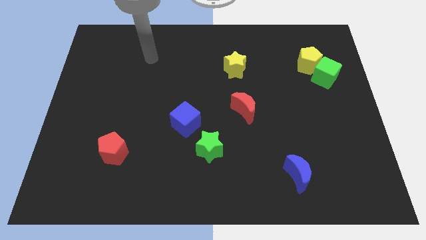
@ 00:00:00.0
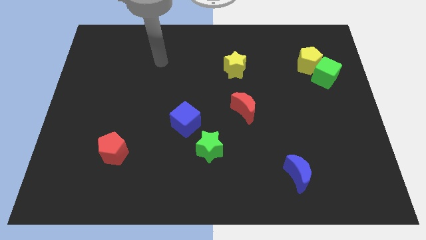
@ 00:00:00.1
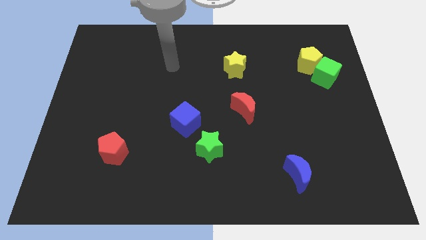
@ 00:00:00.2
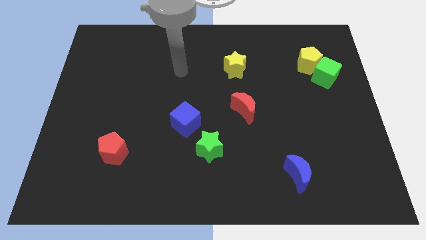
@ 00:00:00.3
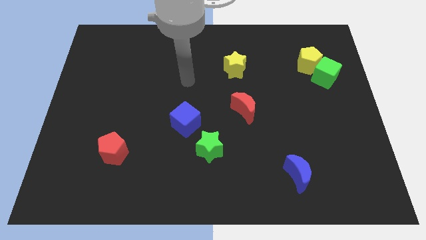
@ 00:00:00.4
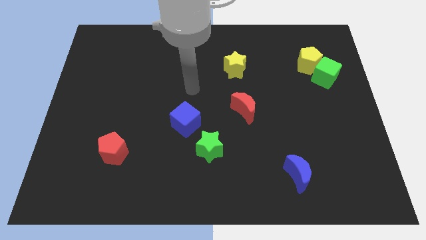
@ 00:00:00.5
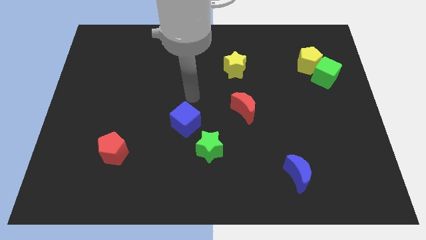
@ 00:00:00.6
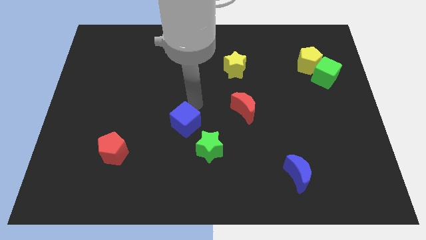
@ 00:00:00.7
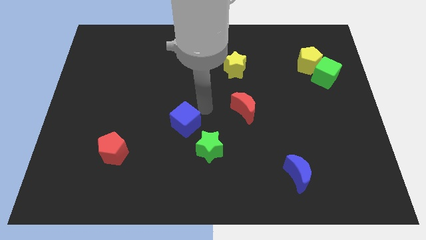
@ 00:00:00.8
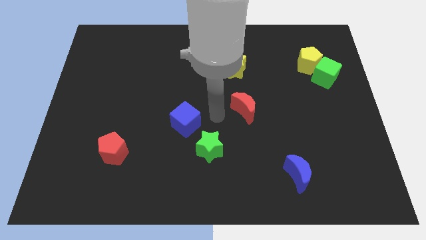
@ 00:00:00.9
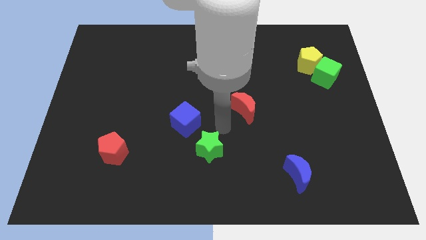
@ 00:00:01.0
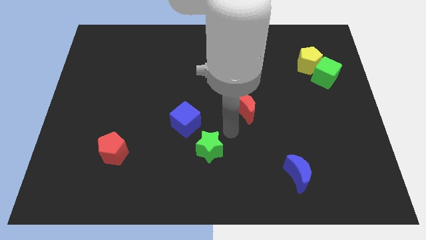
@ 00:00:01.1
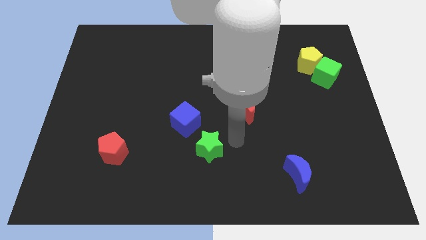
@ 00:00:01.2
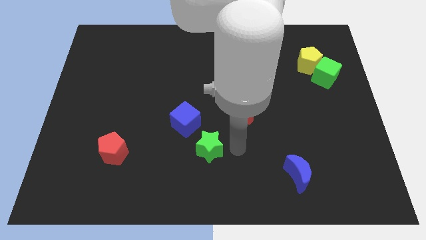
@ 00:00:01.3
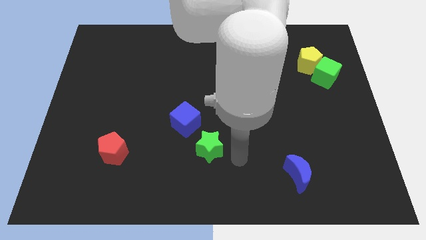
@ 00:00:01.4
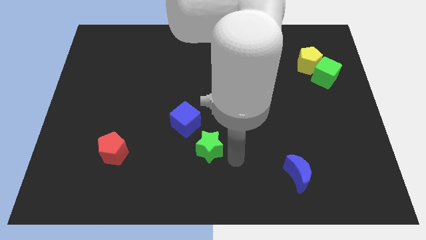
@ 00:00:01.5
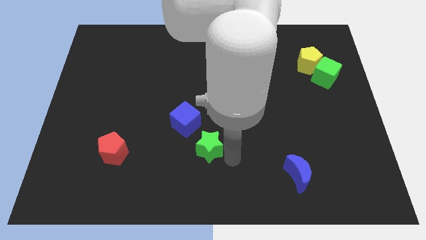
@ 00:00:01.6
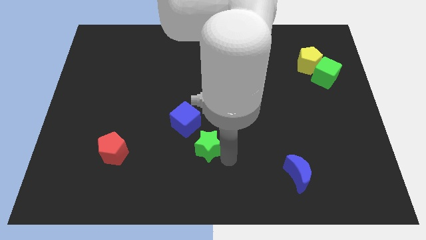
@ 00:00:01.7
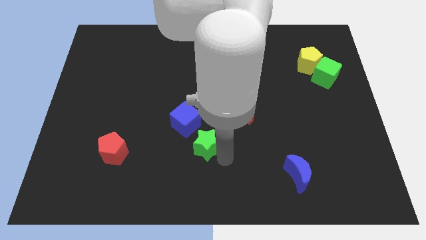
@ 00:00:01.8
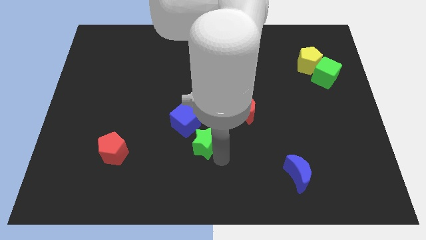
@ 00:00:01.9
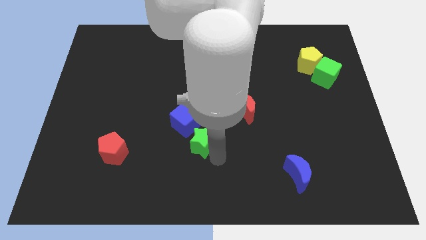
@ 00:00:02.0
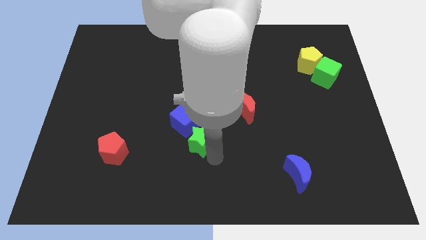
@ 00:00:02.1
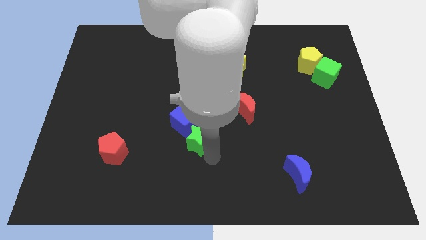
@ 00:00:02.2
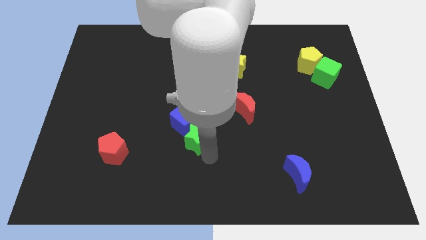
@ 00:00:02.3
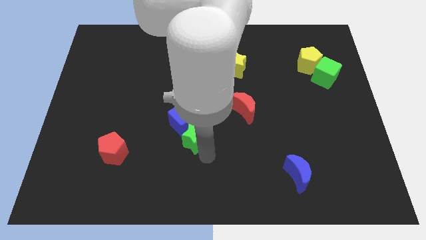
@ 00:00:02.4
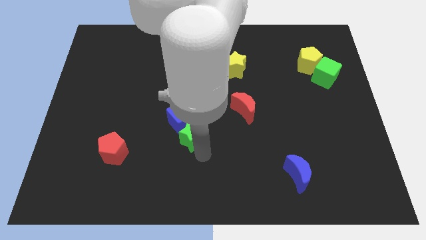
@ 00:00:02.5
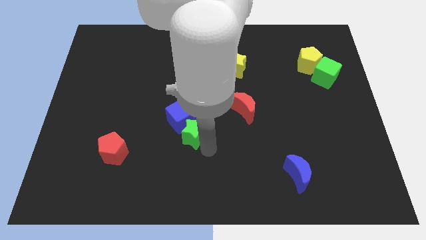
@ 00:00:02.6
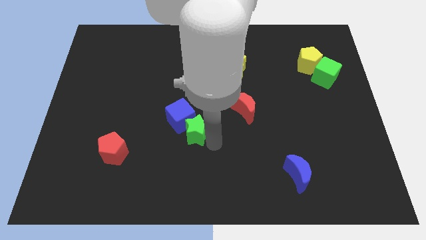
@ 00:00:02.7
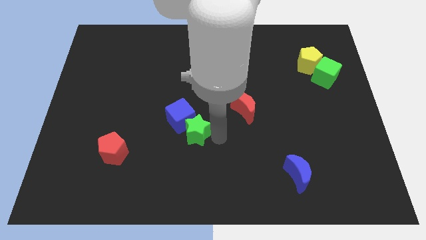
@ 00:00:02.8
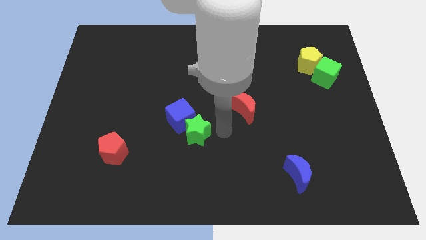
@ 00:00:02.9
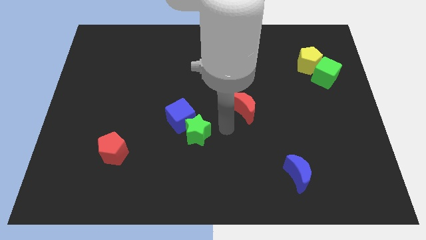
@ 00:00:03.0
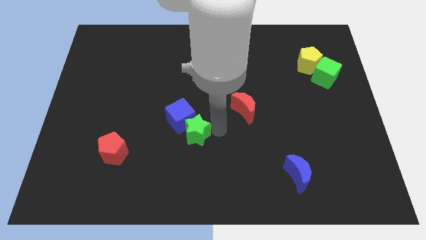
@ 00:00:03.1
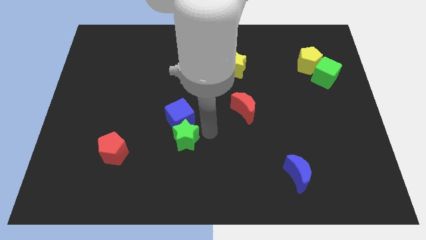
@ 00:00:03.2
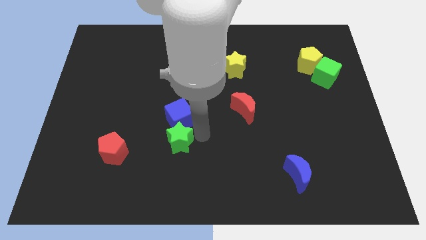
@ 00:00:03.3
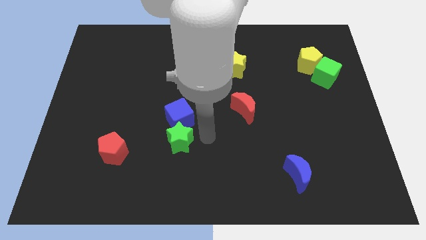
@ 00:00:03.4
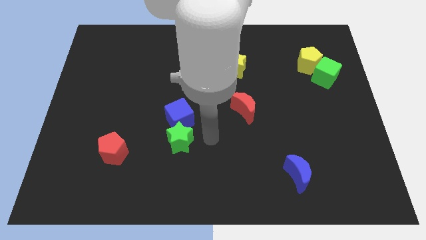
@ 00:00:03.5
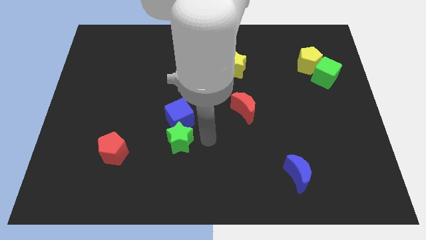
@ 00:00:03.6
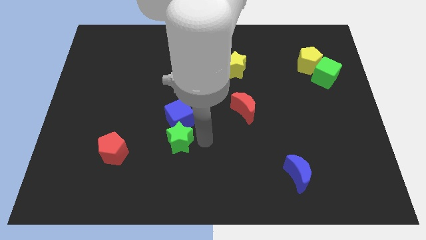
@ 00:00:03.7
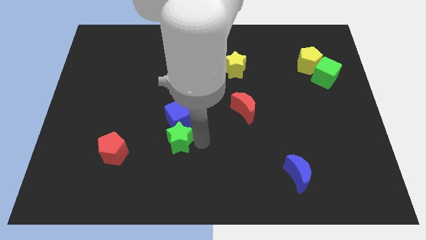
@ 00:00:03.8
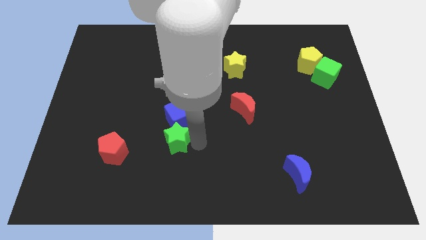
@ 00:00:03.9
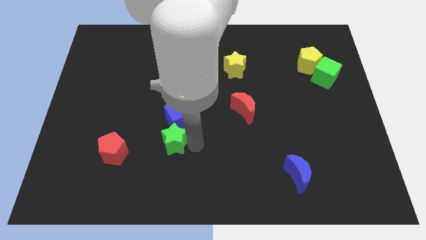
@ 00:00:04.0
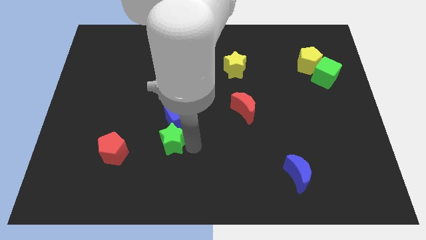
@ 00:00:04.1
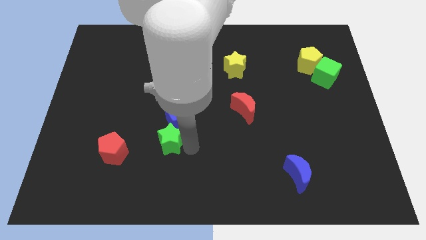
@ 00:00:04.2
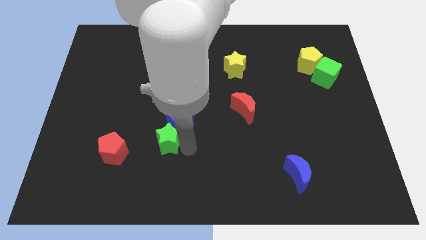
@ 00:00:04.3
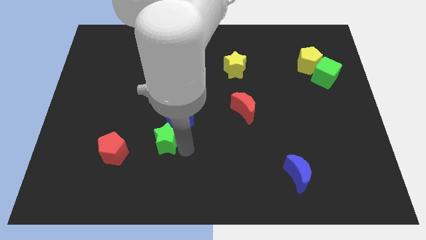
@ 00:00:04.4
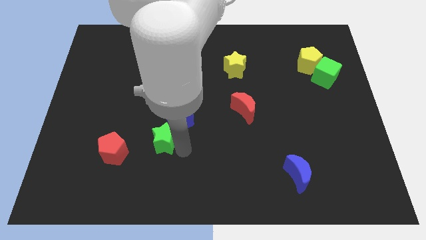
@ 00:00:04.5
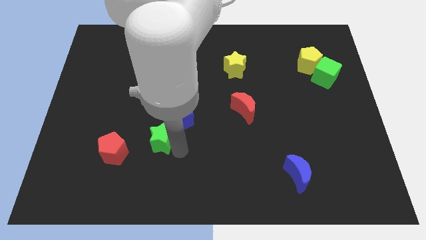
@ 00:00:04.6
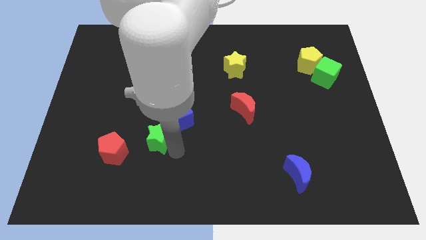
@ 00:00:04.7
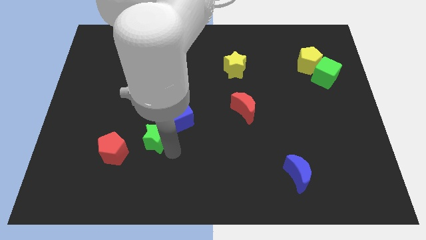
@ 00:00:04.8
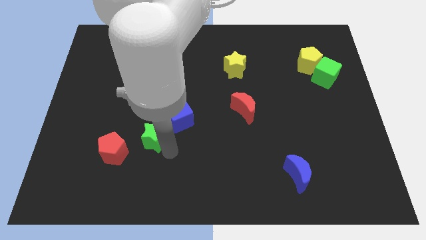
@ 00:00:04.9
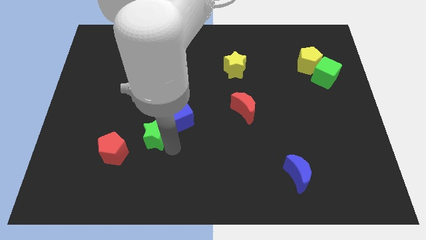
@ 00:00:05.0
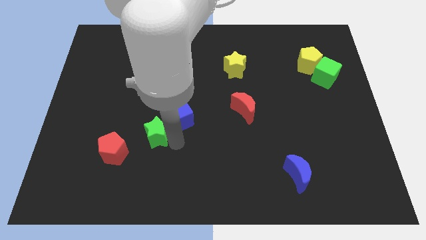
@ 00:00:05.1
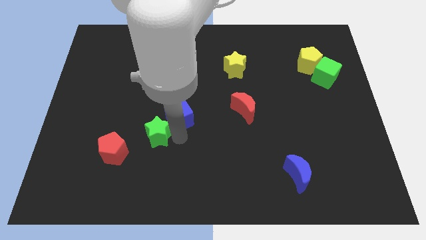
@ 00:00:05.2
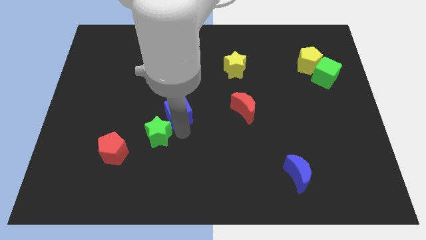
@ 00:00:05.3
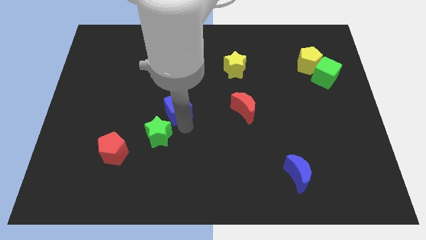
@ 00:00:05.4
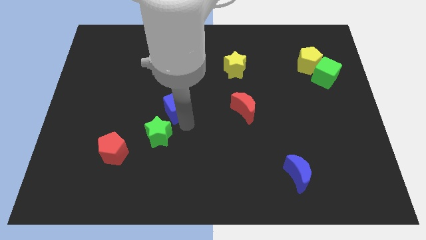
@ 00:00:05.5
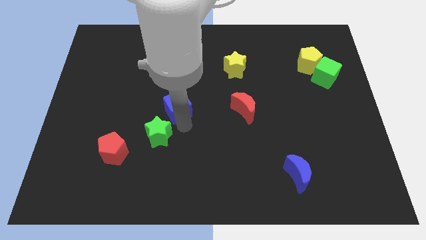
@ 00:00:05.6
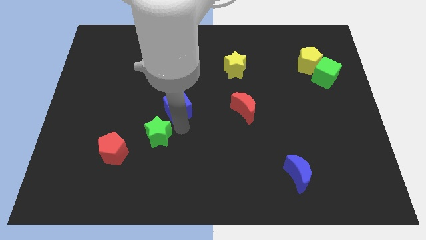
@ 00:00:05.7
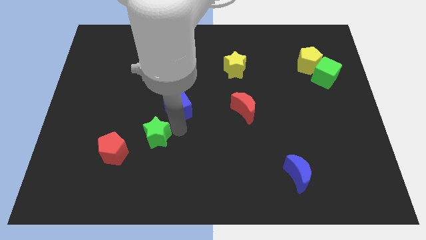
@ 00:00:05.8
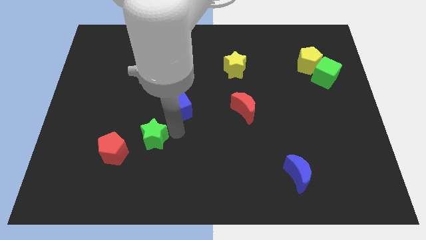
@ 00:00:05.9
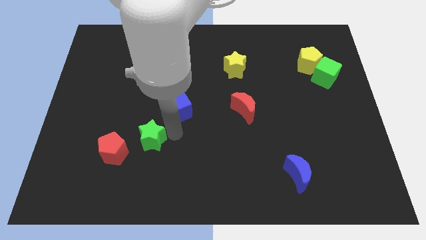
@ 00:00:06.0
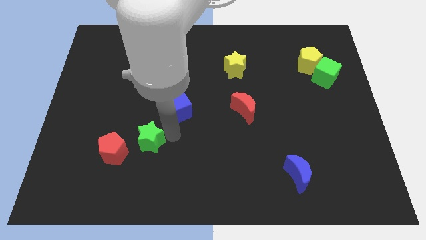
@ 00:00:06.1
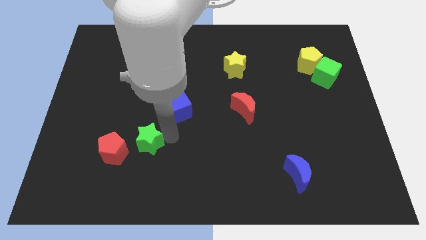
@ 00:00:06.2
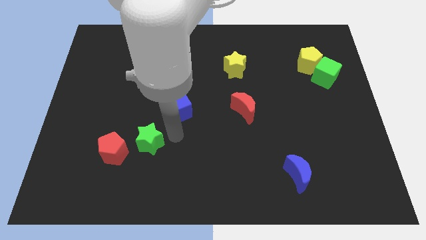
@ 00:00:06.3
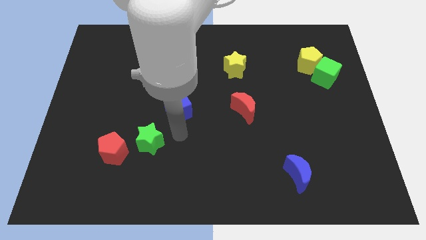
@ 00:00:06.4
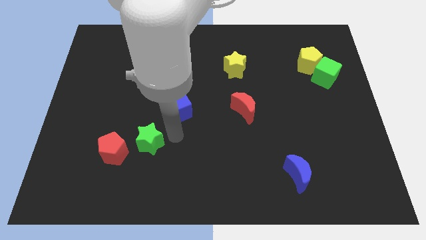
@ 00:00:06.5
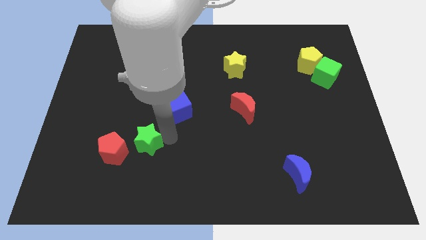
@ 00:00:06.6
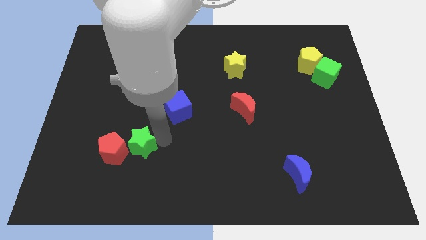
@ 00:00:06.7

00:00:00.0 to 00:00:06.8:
put the green star next to the red pentagon

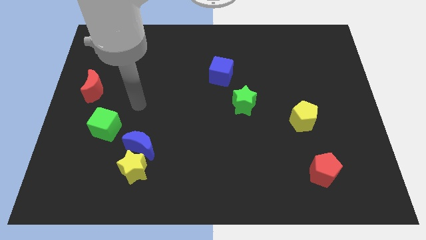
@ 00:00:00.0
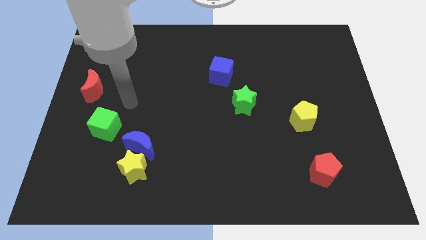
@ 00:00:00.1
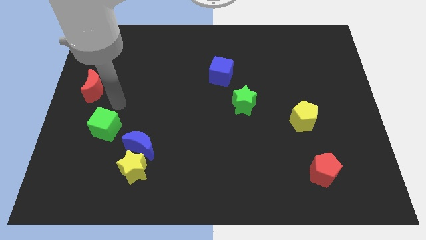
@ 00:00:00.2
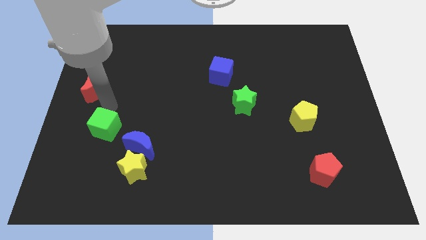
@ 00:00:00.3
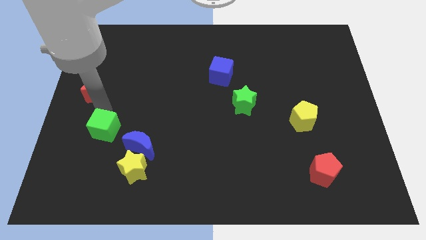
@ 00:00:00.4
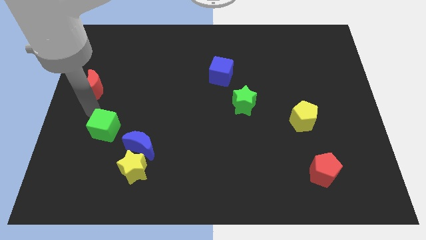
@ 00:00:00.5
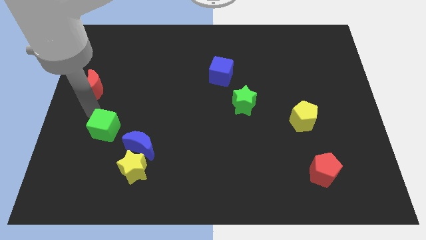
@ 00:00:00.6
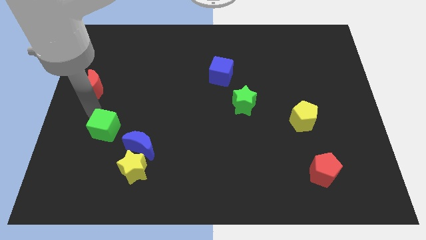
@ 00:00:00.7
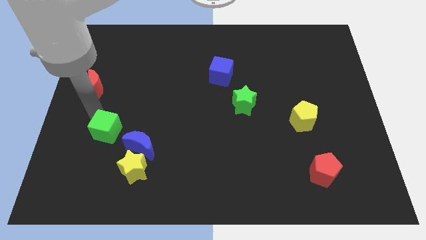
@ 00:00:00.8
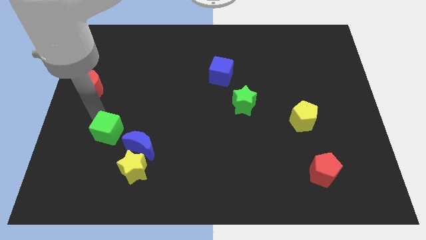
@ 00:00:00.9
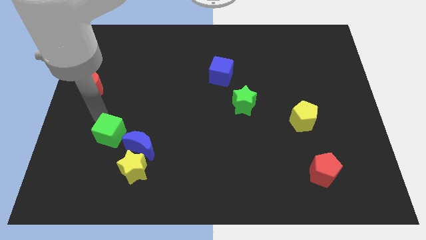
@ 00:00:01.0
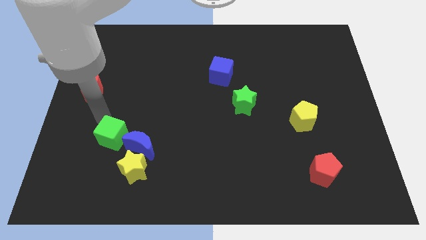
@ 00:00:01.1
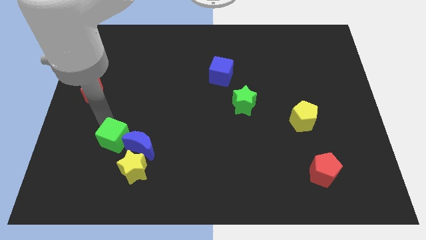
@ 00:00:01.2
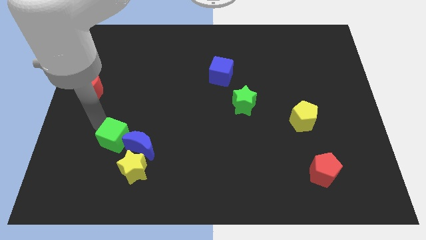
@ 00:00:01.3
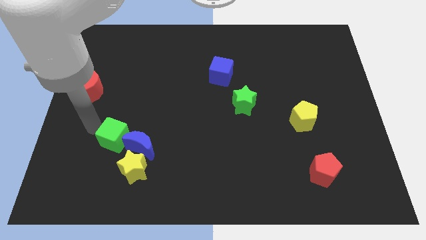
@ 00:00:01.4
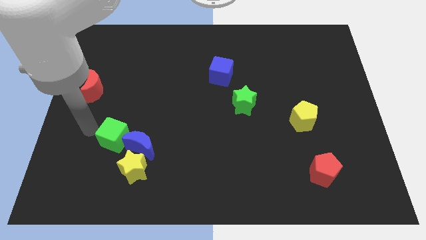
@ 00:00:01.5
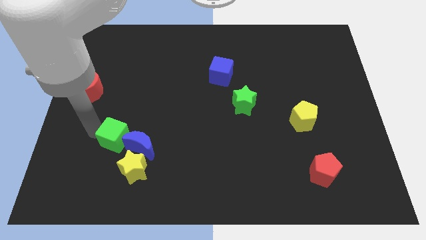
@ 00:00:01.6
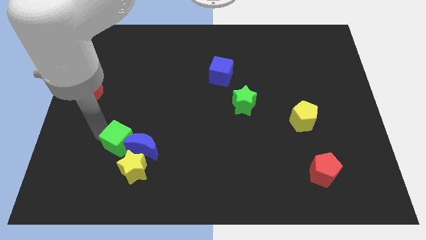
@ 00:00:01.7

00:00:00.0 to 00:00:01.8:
put the green cube towards the blue moon
